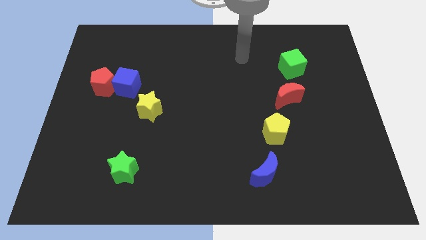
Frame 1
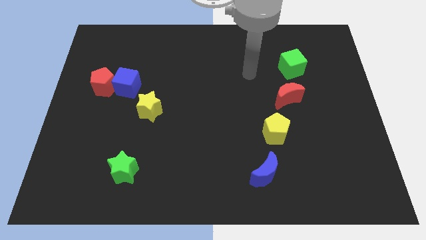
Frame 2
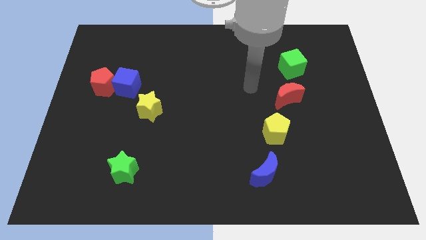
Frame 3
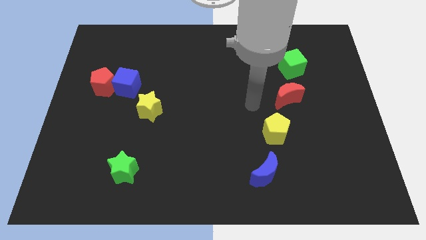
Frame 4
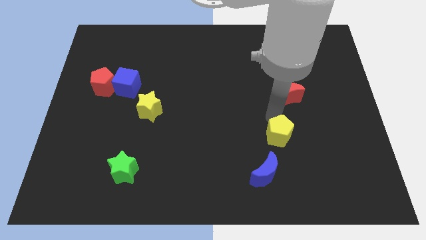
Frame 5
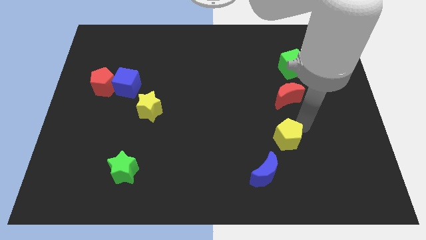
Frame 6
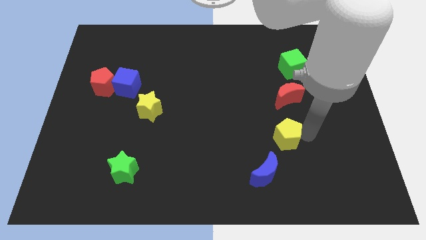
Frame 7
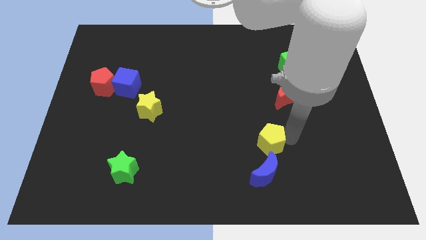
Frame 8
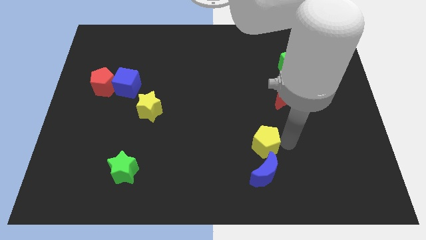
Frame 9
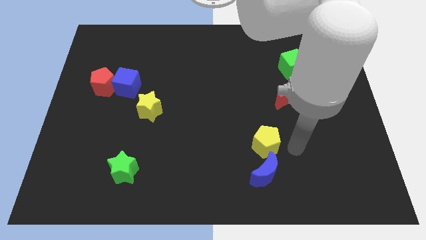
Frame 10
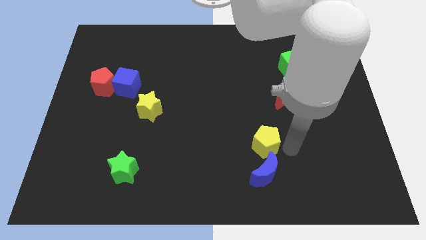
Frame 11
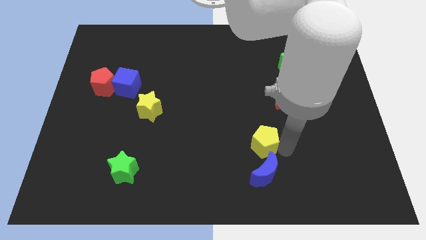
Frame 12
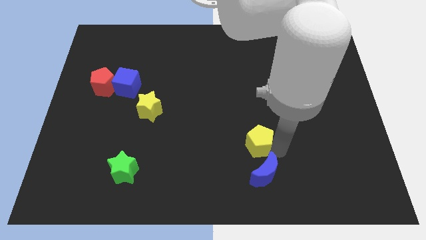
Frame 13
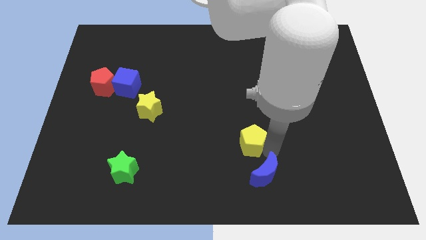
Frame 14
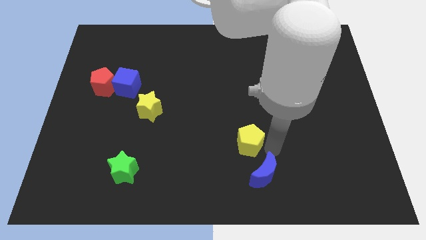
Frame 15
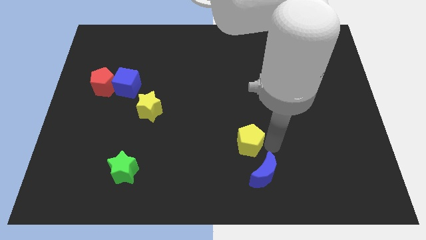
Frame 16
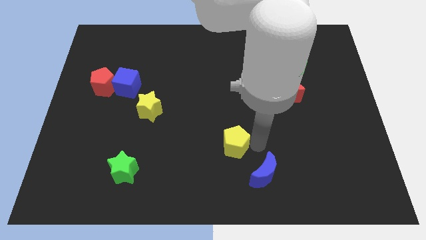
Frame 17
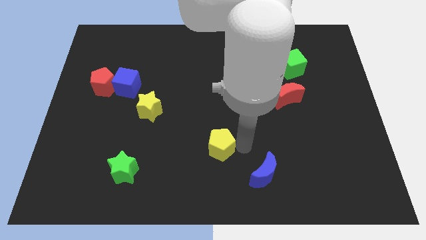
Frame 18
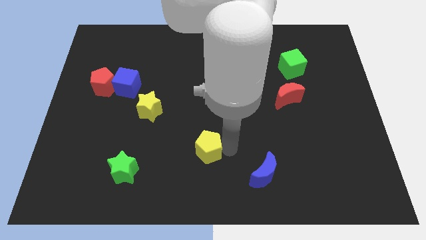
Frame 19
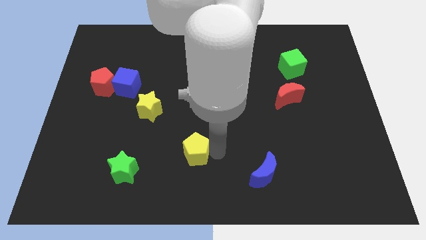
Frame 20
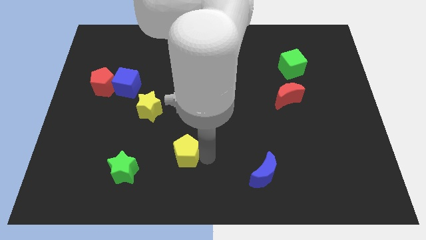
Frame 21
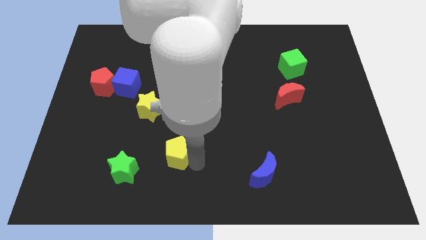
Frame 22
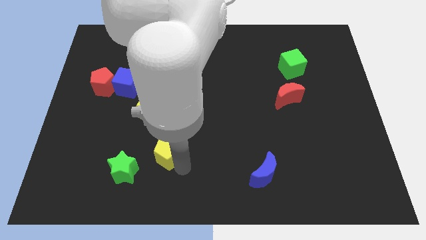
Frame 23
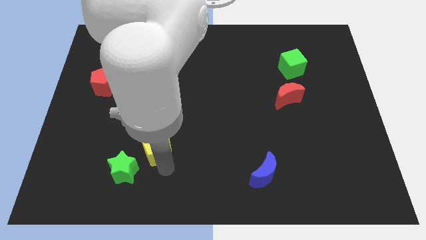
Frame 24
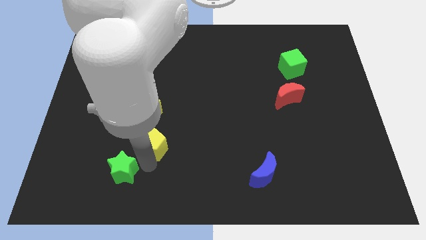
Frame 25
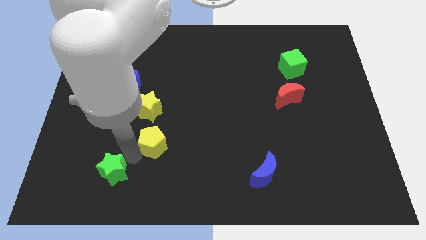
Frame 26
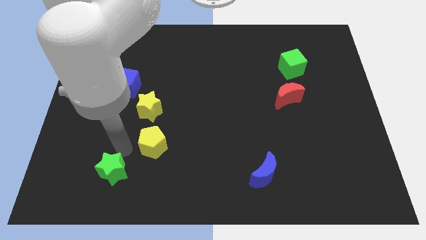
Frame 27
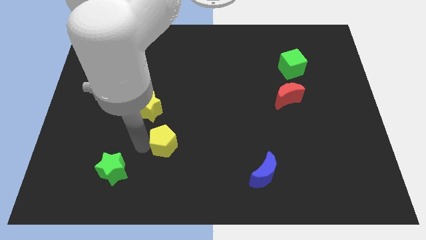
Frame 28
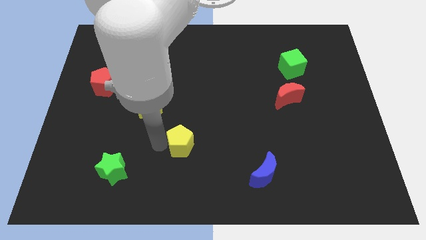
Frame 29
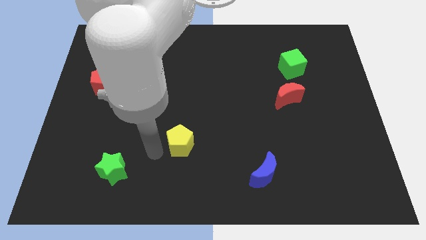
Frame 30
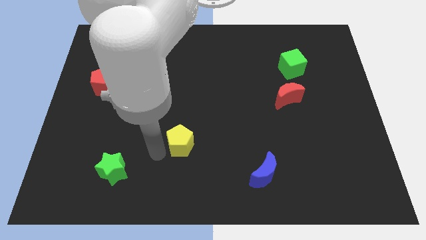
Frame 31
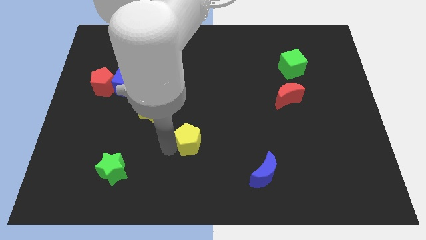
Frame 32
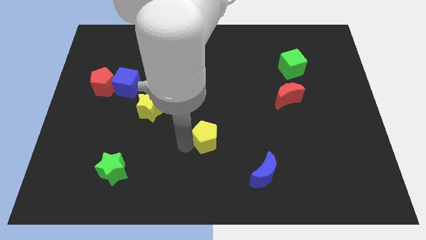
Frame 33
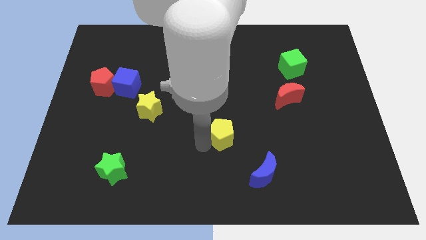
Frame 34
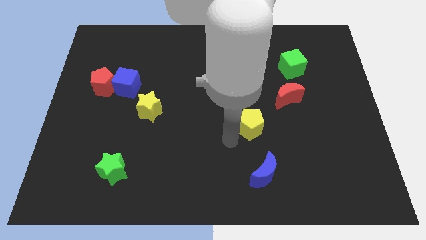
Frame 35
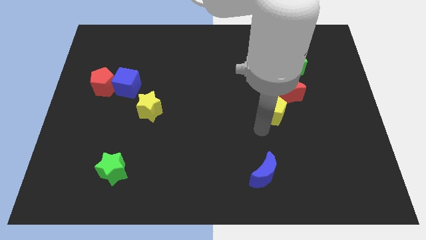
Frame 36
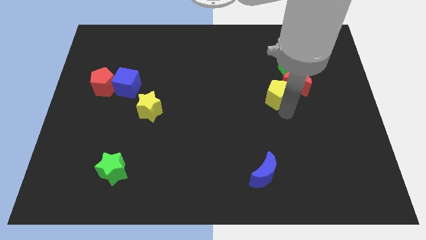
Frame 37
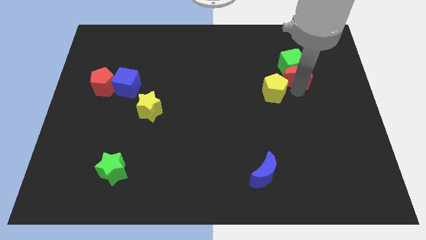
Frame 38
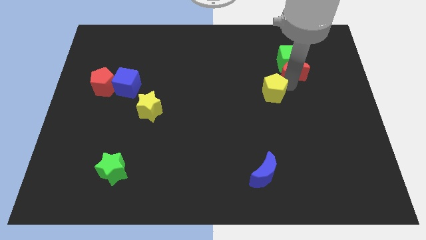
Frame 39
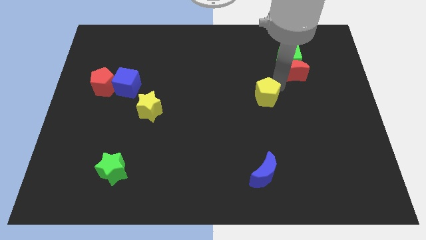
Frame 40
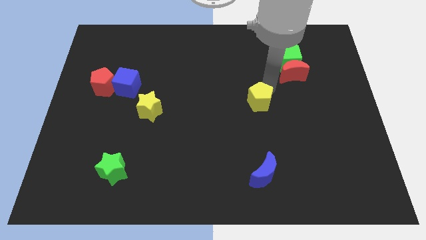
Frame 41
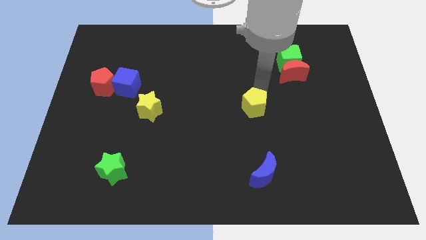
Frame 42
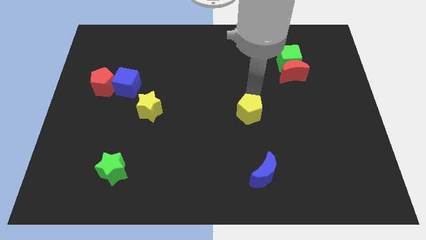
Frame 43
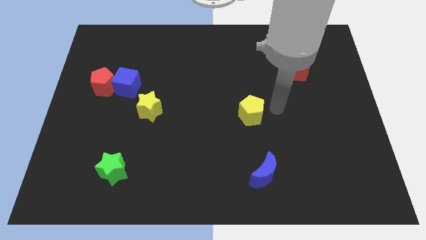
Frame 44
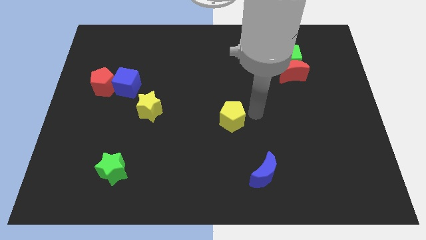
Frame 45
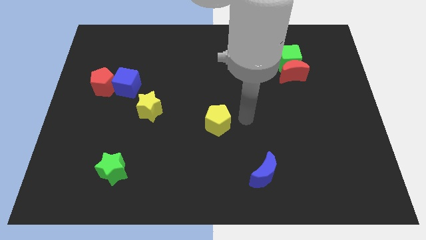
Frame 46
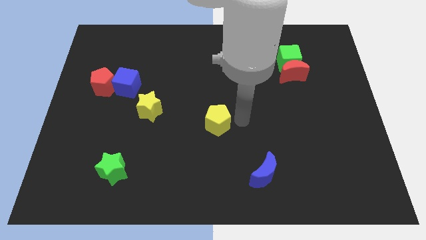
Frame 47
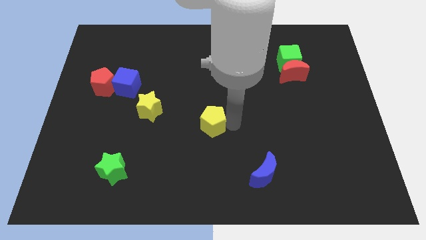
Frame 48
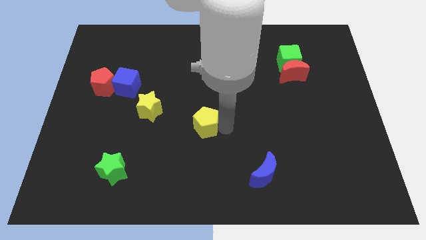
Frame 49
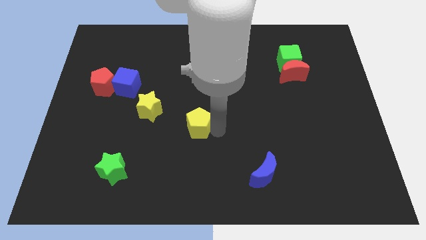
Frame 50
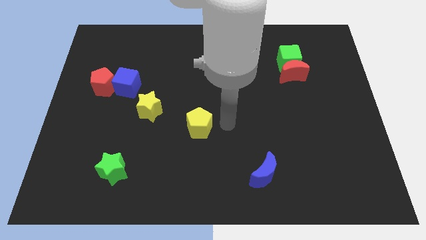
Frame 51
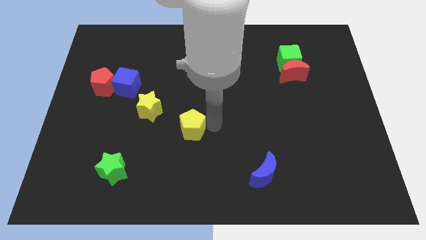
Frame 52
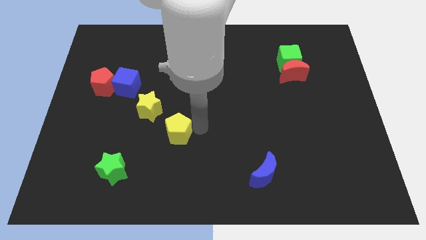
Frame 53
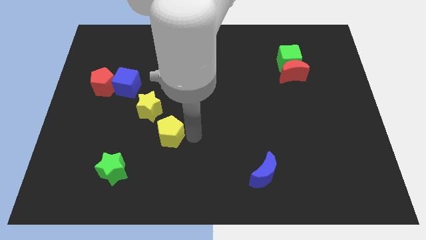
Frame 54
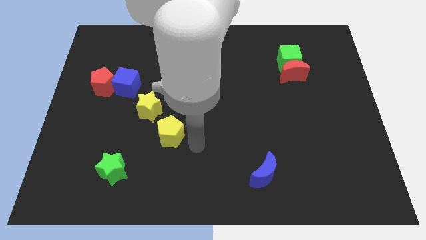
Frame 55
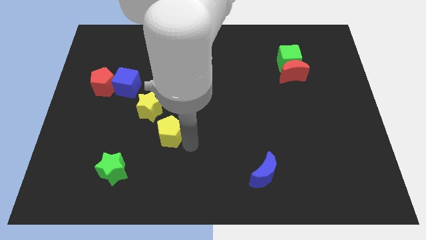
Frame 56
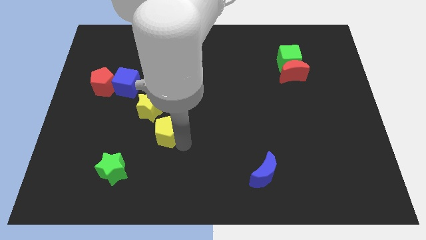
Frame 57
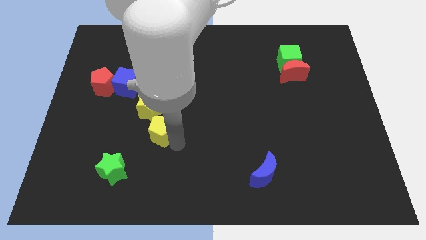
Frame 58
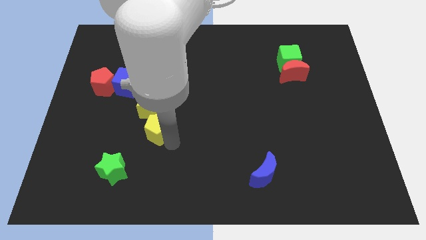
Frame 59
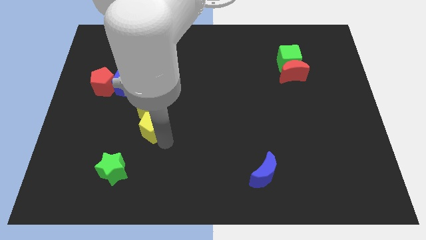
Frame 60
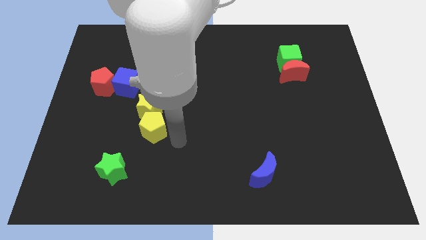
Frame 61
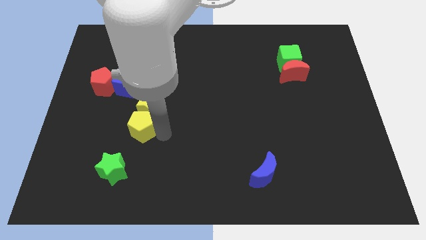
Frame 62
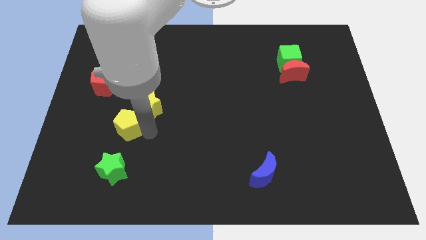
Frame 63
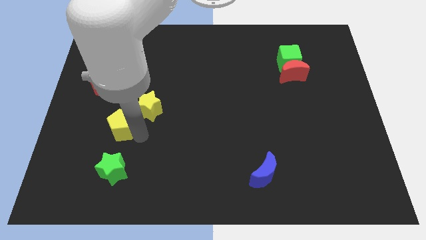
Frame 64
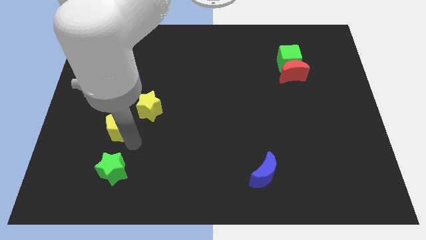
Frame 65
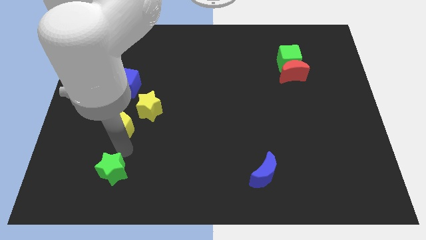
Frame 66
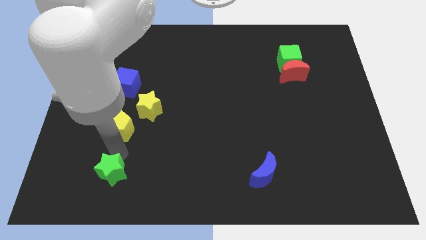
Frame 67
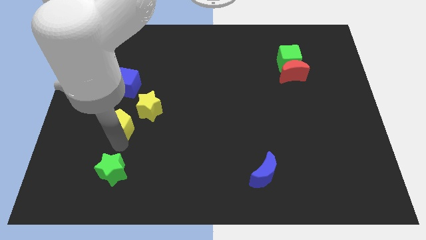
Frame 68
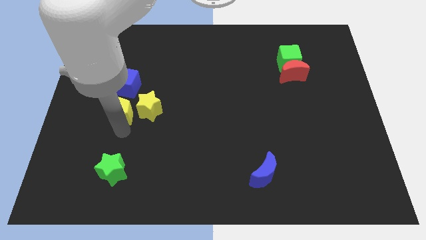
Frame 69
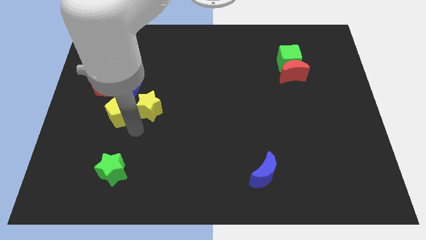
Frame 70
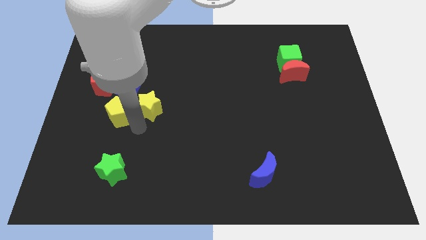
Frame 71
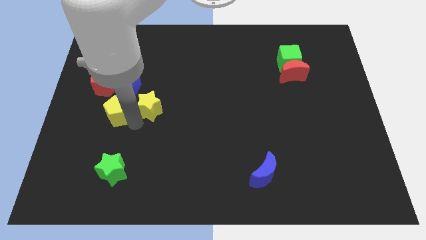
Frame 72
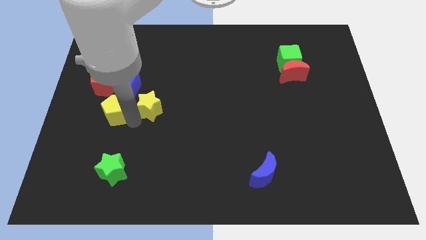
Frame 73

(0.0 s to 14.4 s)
slide the yellow pentagon to the bottom left side of the blue cube
